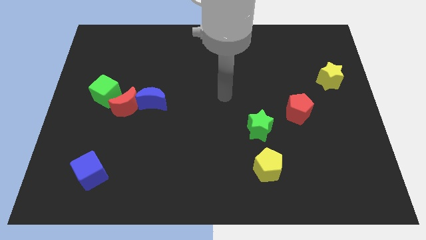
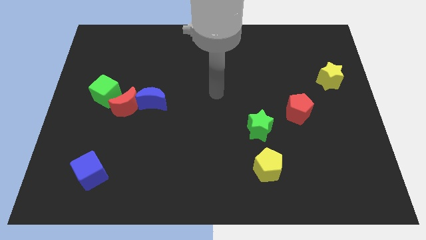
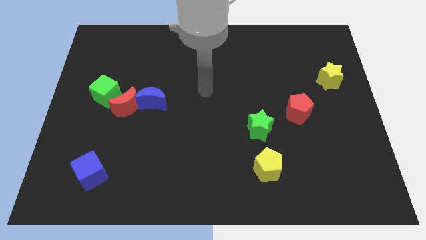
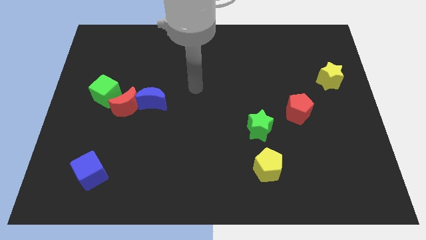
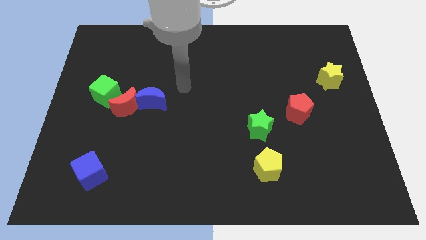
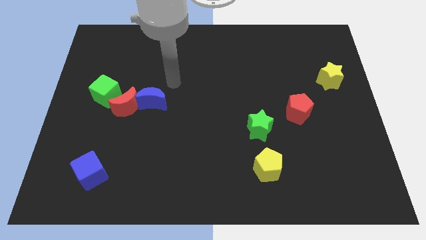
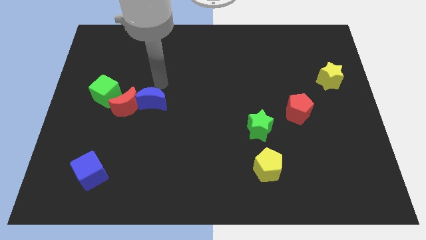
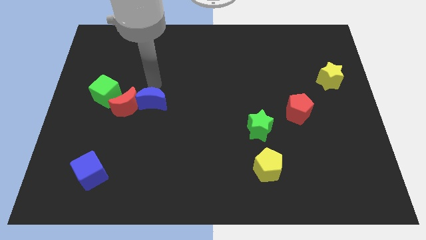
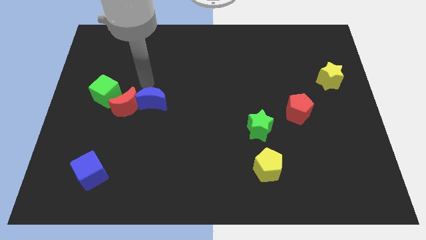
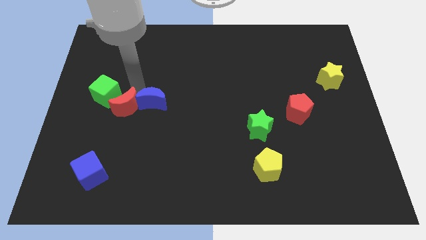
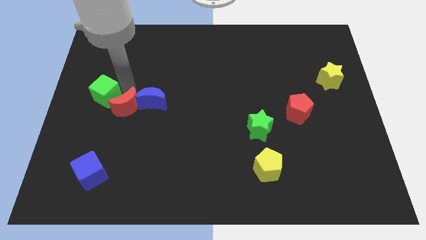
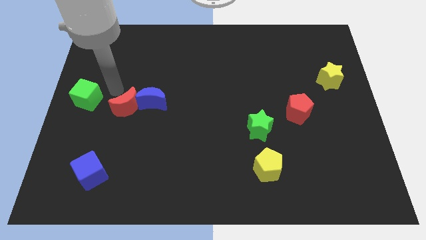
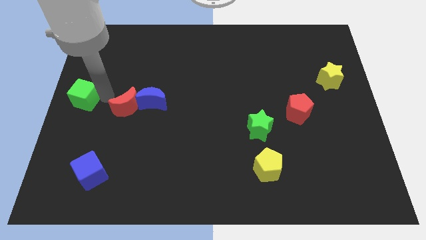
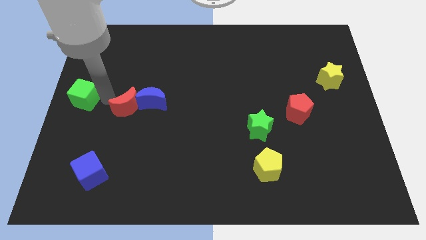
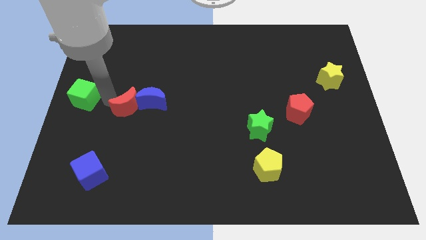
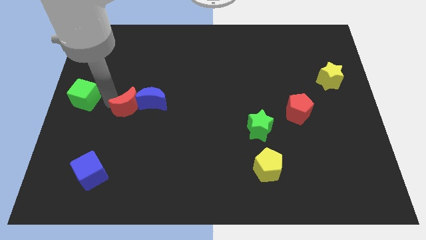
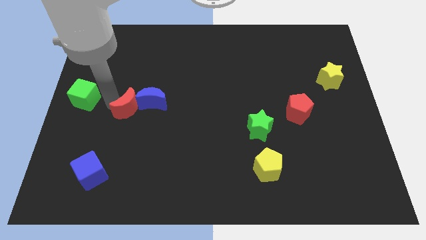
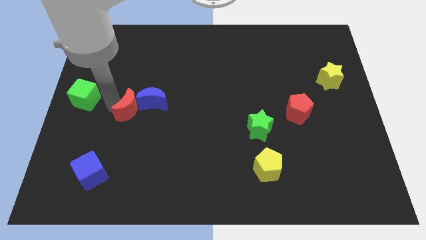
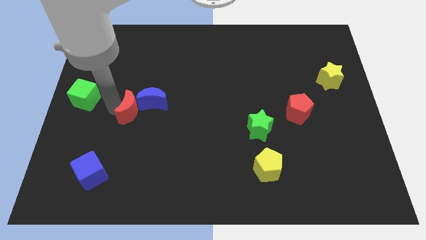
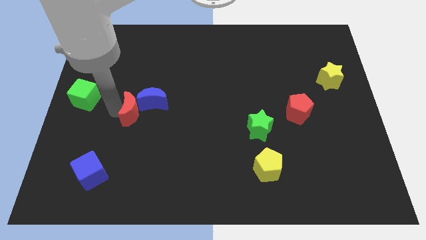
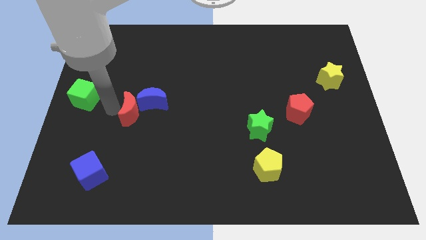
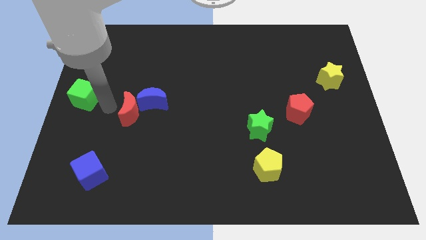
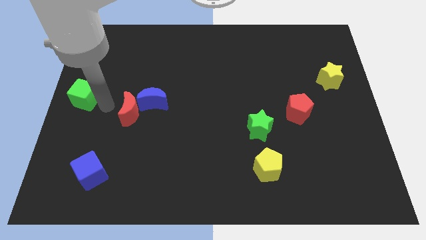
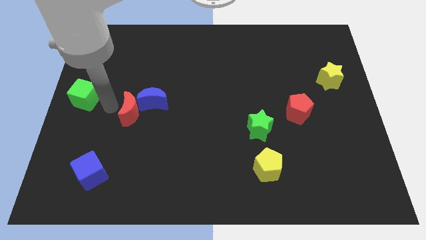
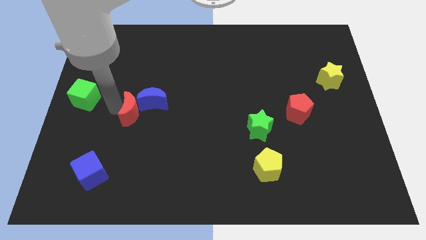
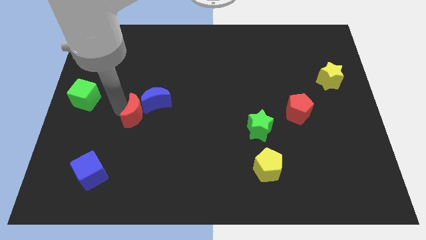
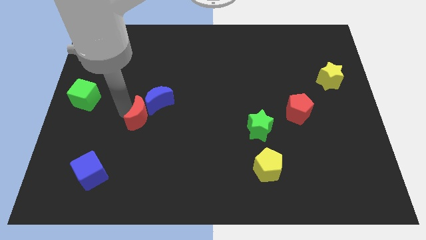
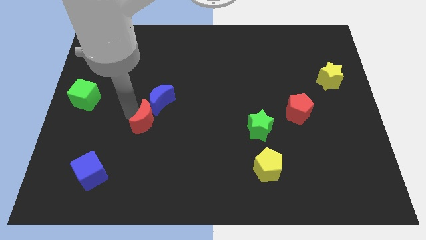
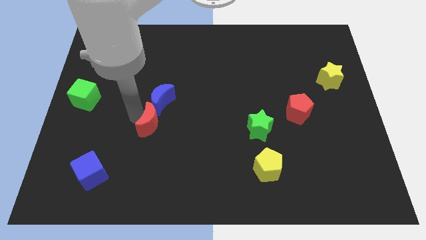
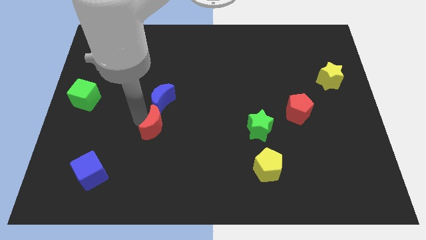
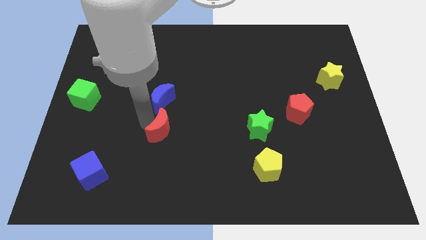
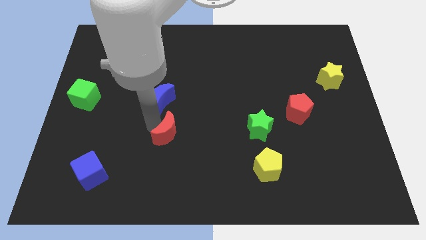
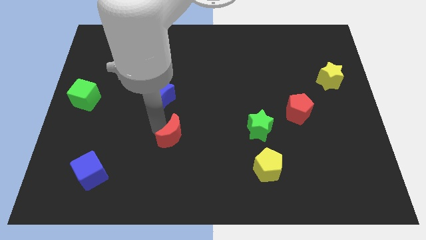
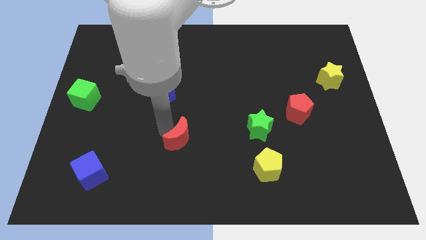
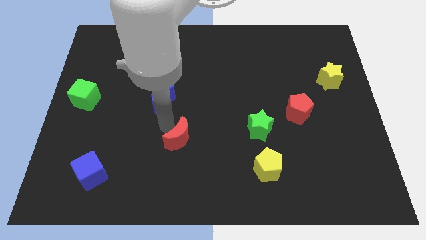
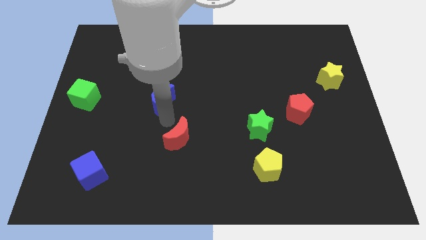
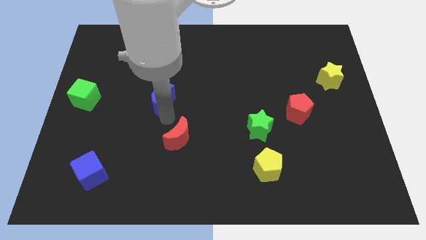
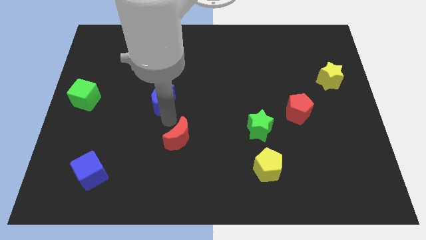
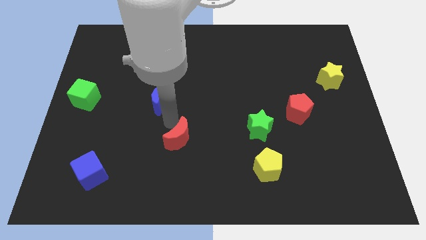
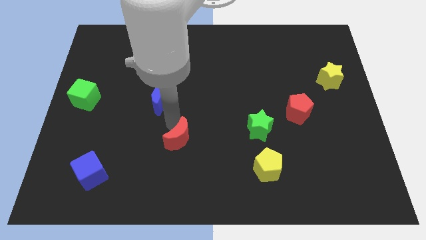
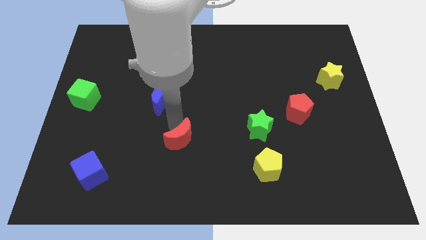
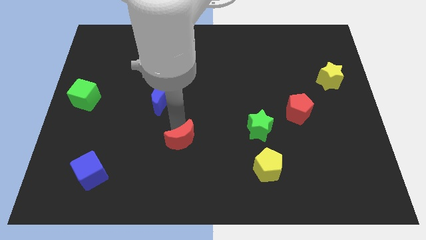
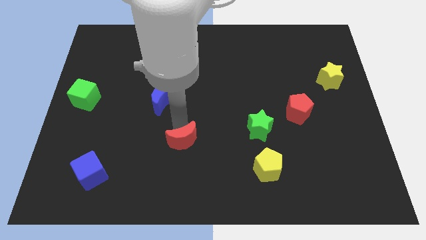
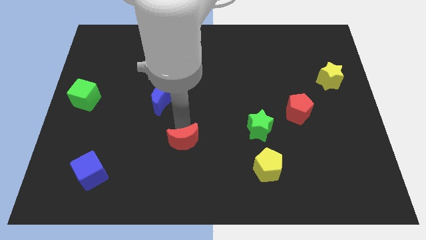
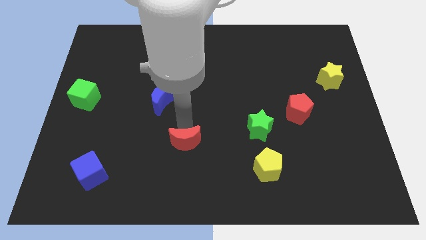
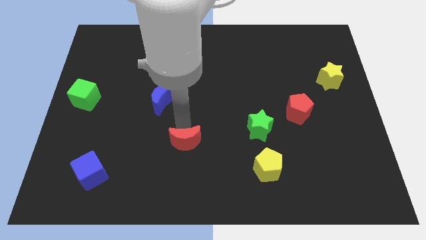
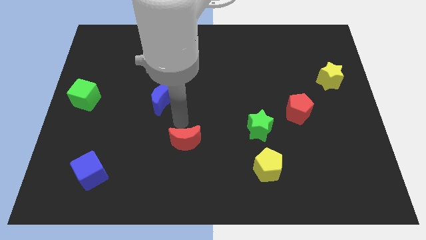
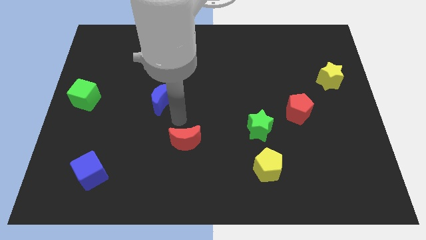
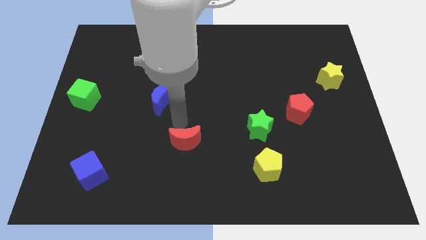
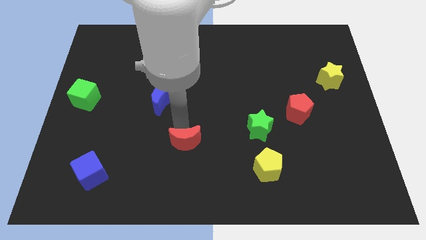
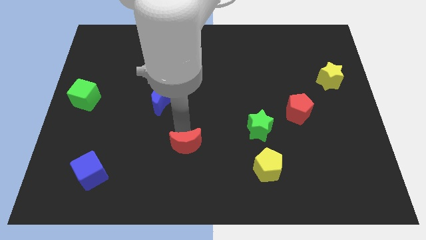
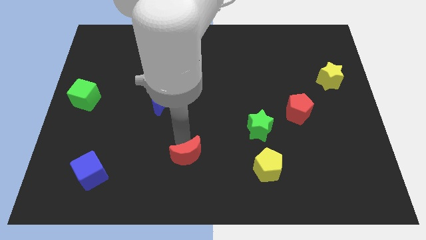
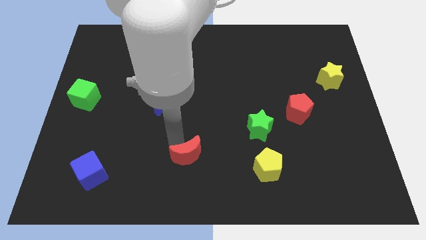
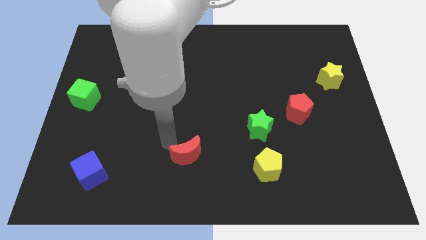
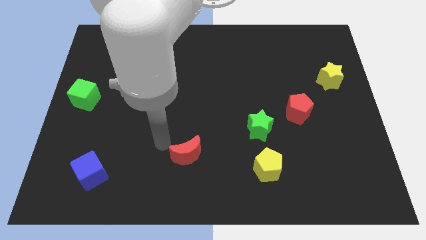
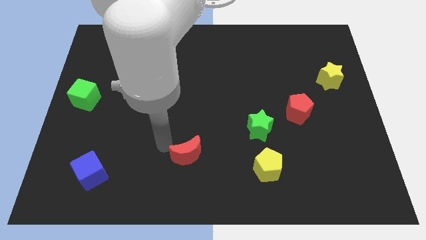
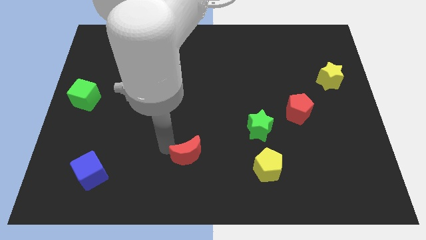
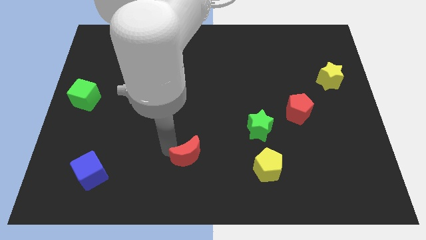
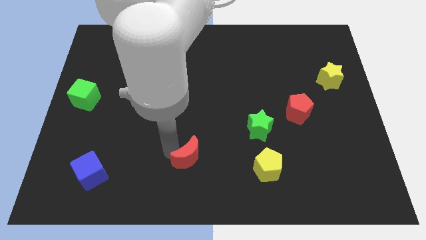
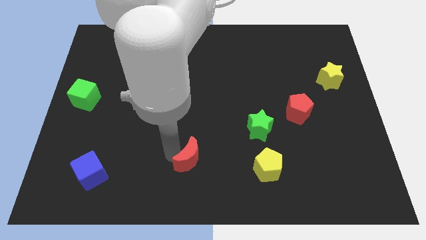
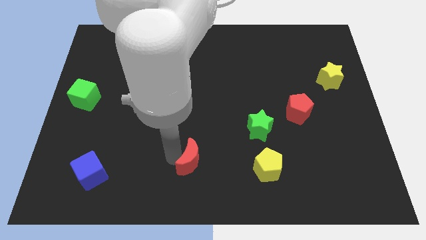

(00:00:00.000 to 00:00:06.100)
put the red moon left of the yellow pentagon

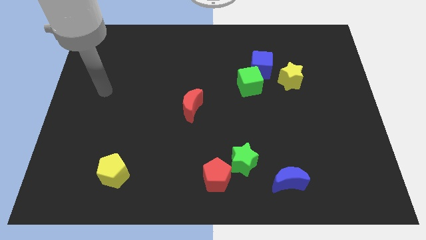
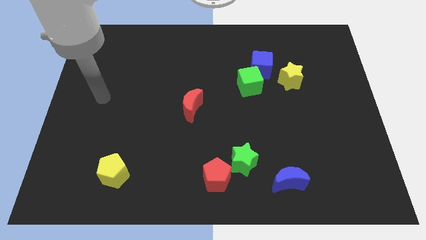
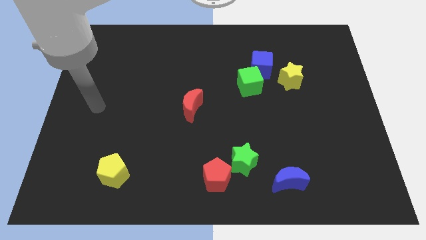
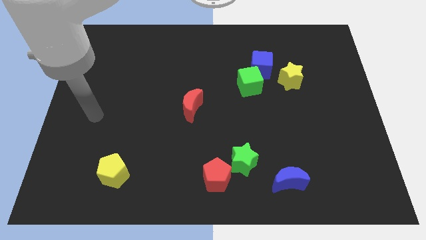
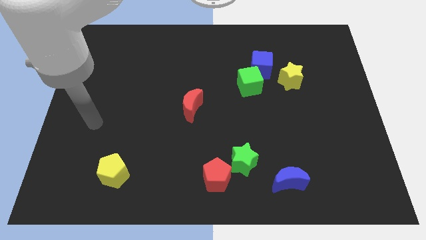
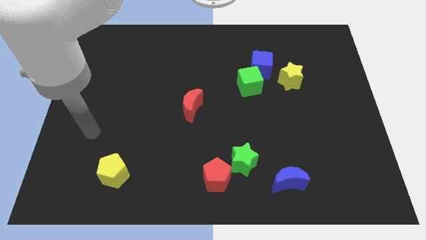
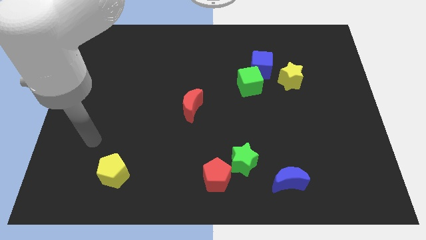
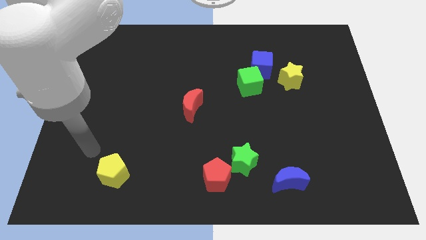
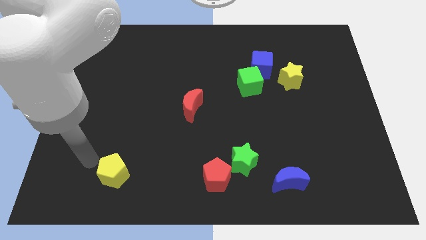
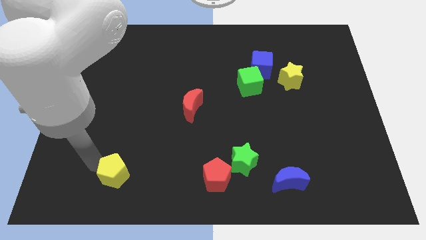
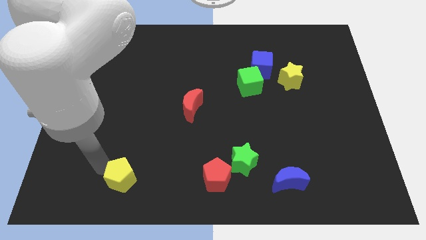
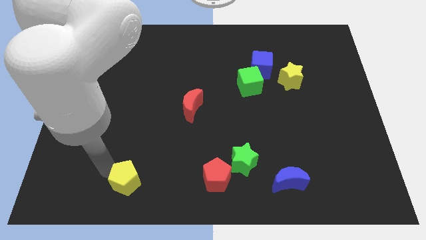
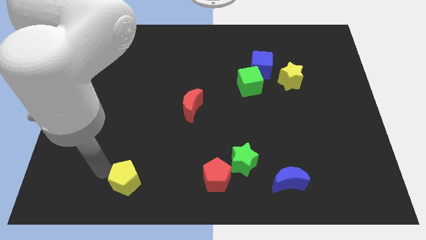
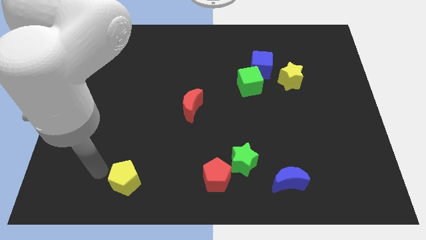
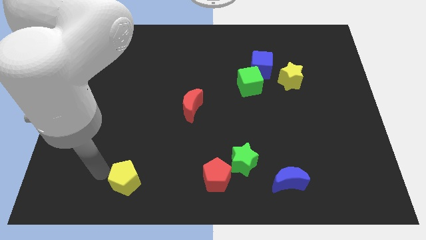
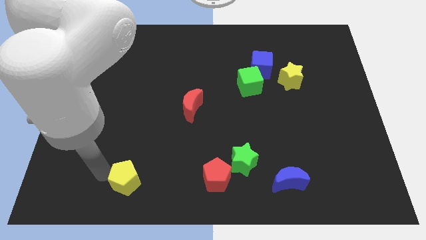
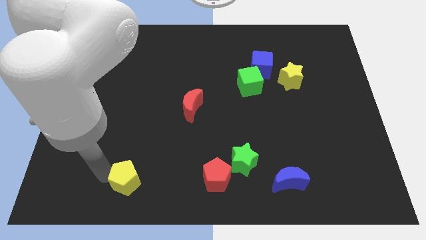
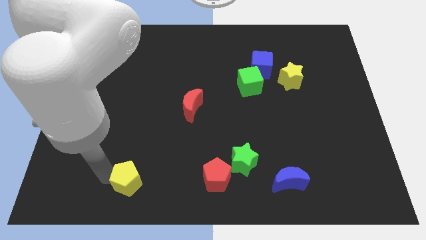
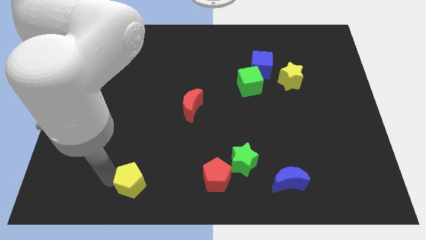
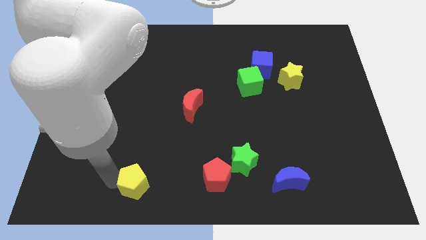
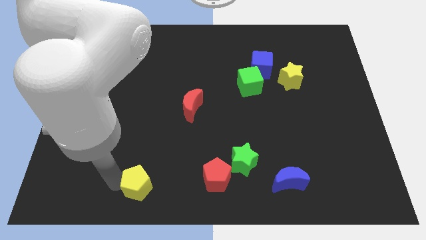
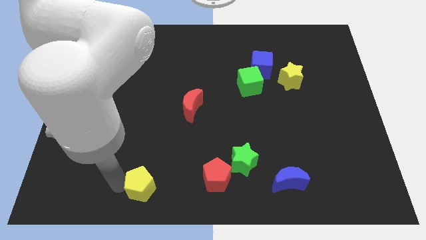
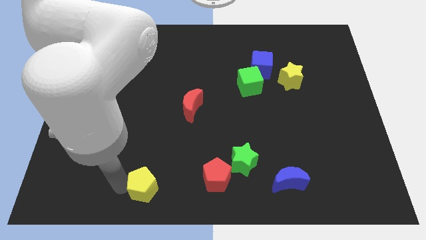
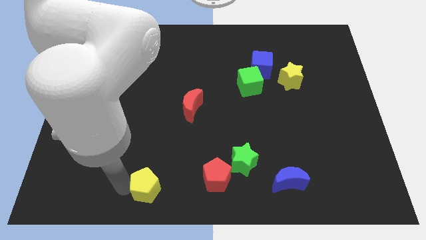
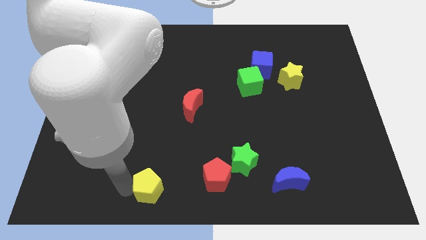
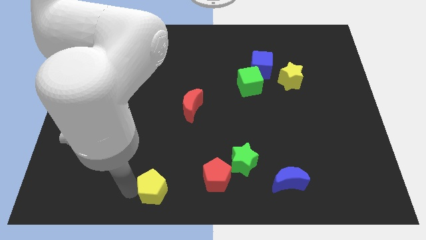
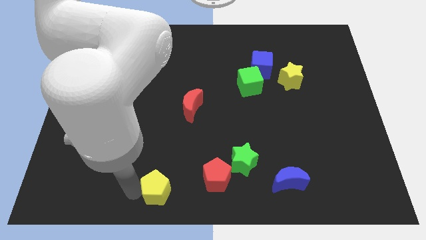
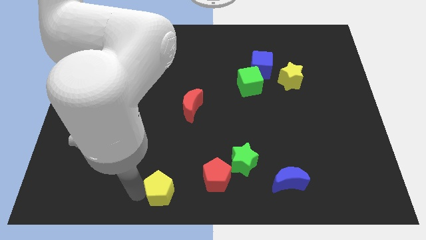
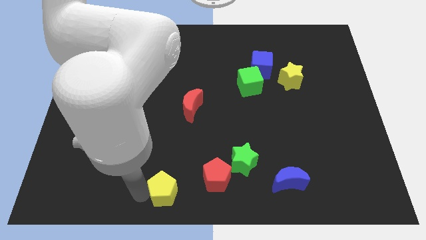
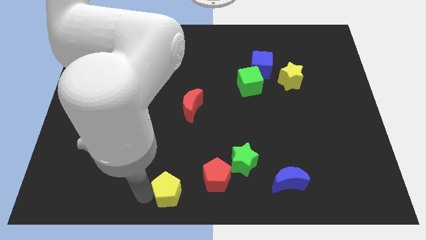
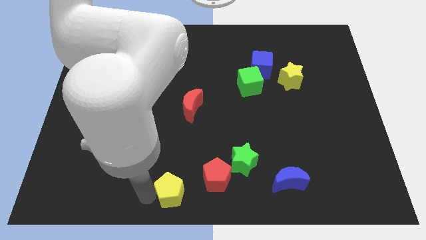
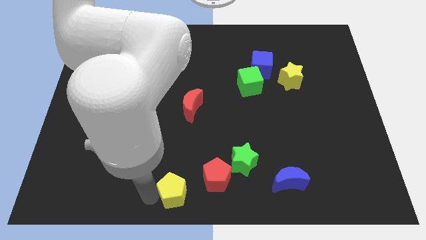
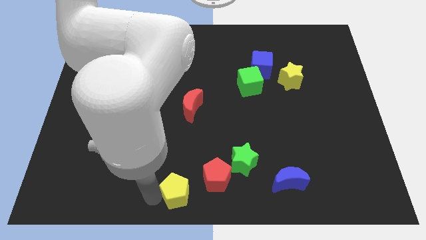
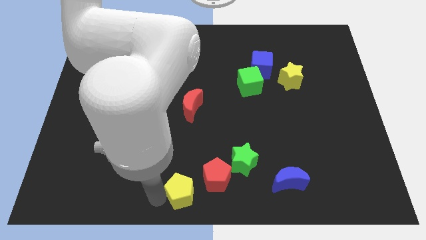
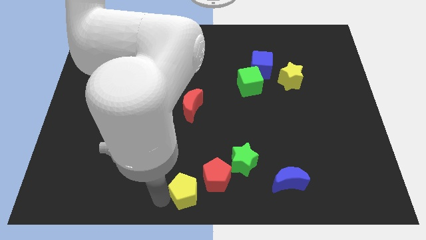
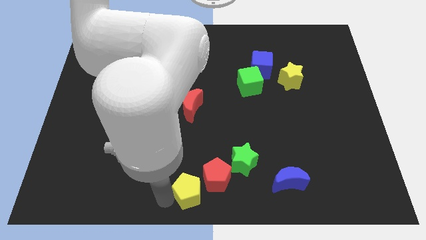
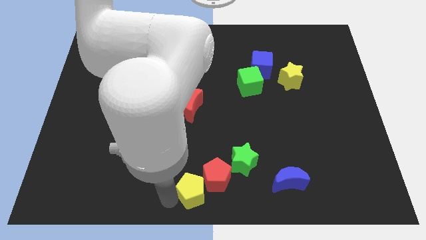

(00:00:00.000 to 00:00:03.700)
move the yellow pentagon to the bottom left of the green star
